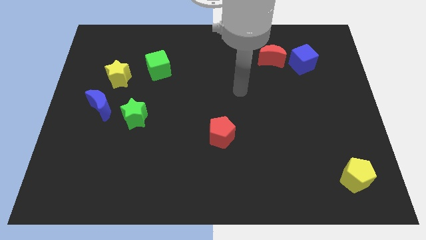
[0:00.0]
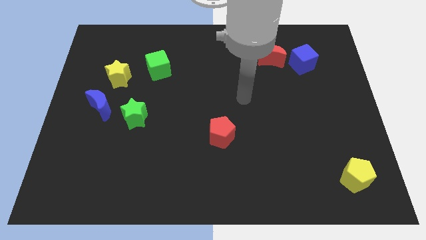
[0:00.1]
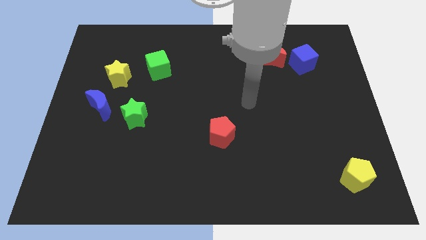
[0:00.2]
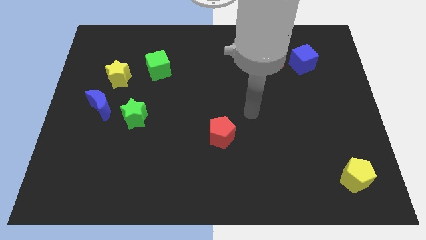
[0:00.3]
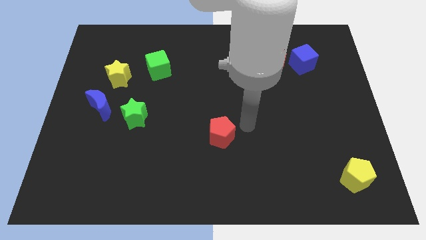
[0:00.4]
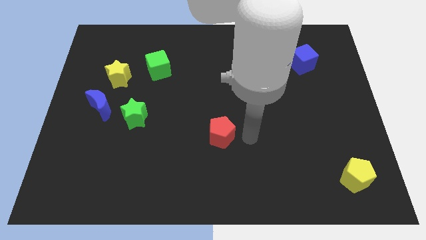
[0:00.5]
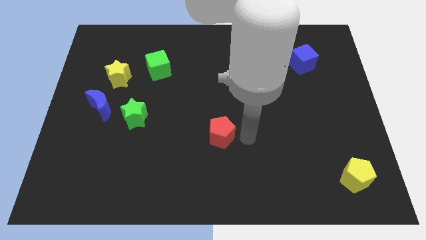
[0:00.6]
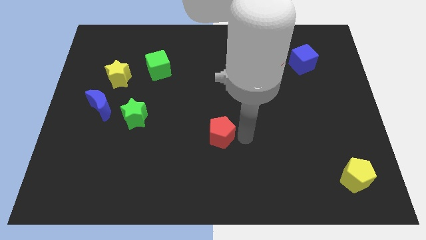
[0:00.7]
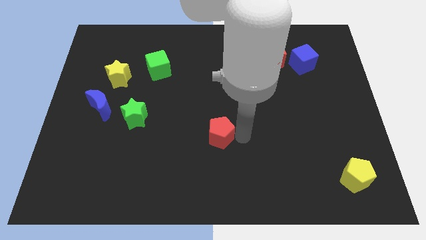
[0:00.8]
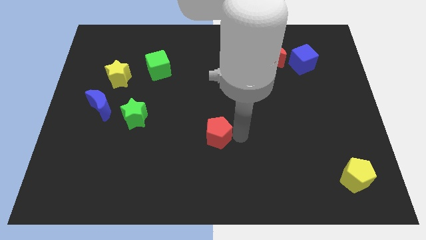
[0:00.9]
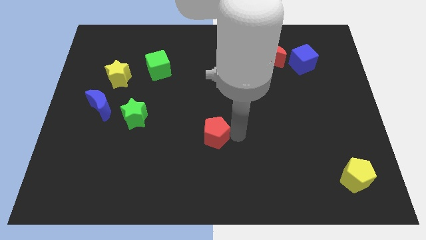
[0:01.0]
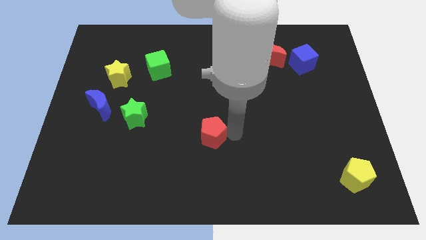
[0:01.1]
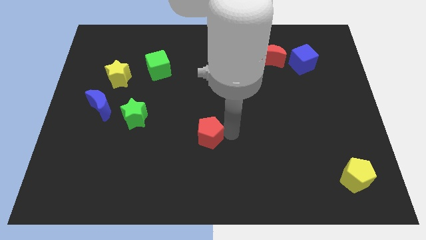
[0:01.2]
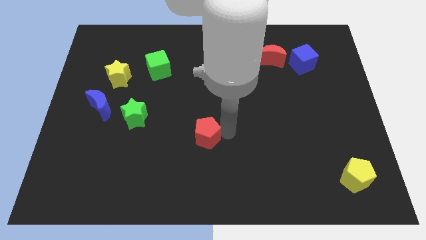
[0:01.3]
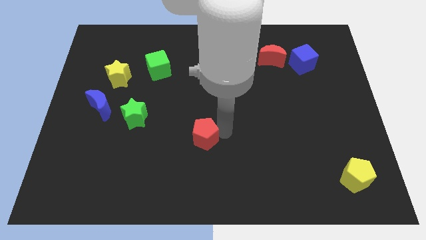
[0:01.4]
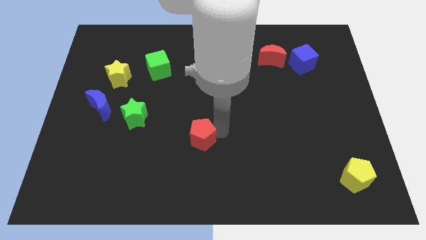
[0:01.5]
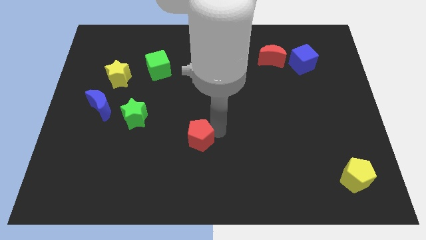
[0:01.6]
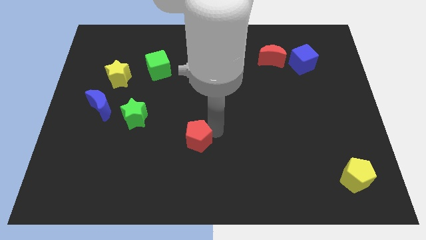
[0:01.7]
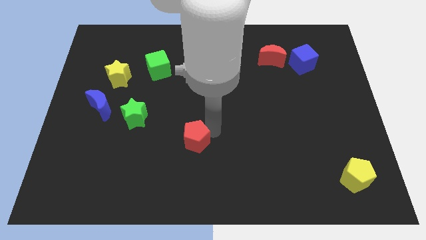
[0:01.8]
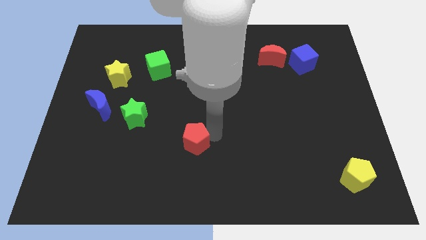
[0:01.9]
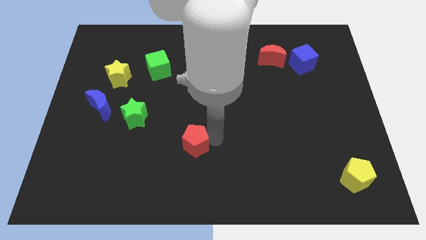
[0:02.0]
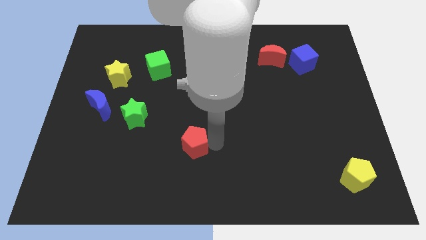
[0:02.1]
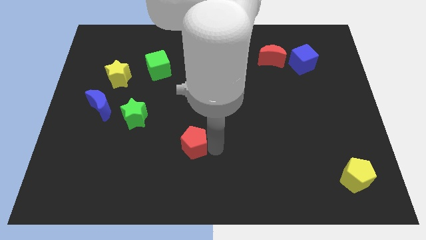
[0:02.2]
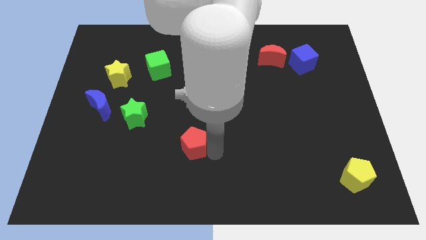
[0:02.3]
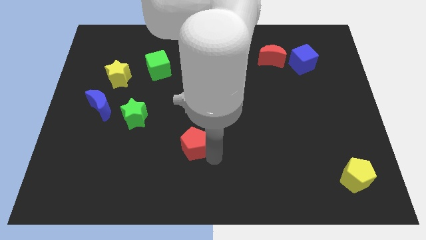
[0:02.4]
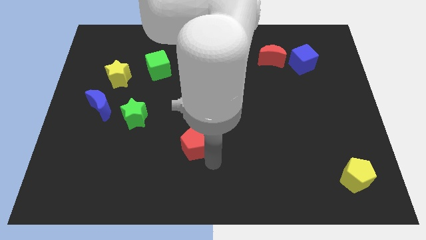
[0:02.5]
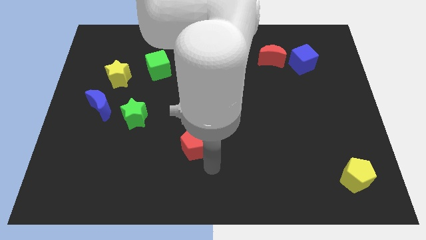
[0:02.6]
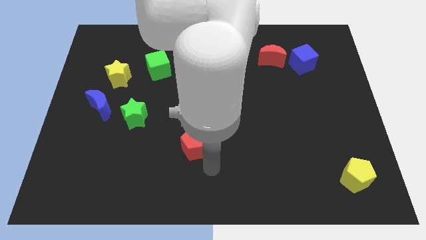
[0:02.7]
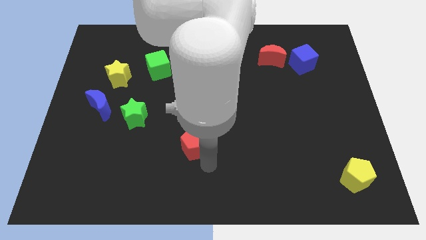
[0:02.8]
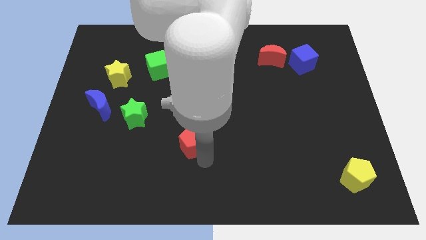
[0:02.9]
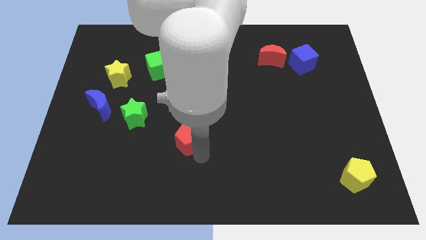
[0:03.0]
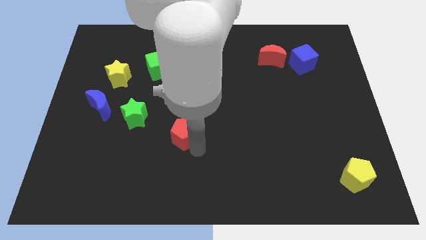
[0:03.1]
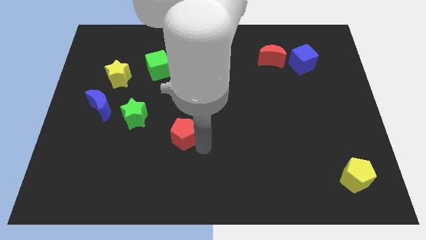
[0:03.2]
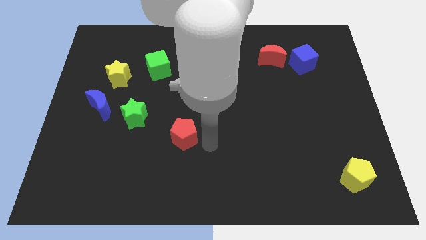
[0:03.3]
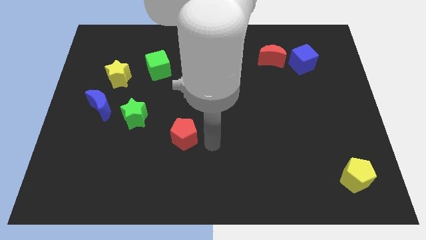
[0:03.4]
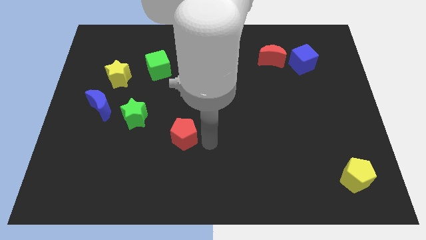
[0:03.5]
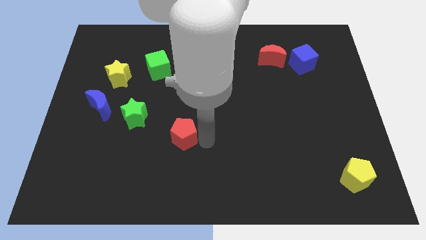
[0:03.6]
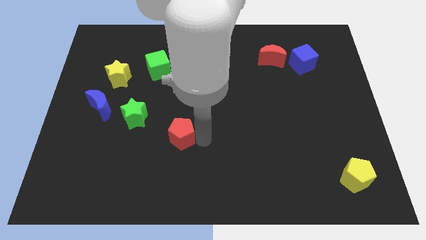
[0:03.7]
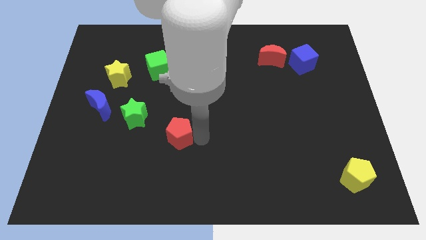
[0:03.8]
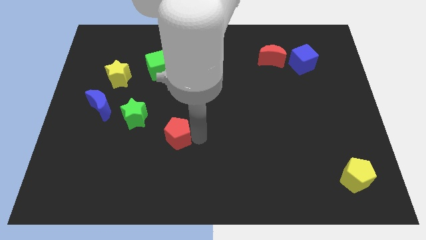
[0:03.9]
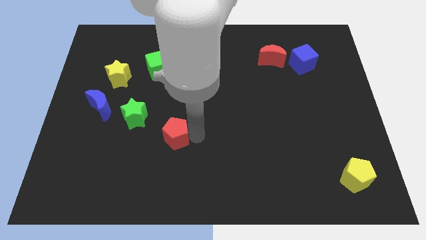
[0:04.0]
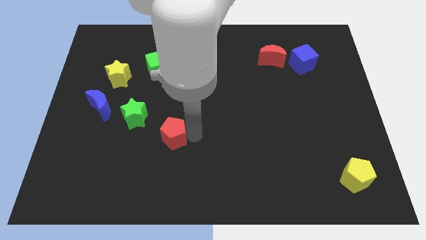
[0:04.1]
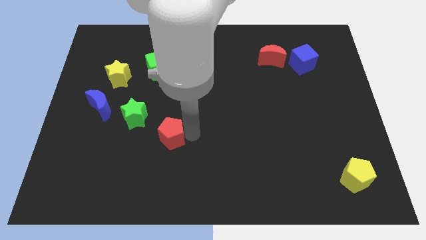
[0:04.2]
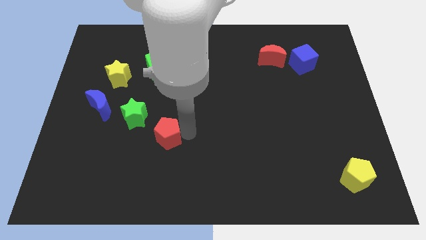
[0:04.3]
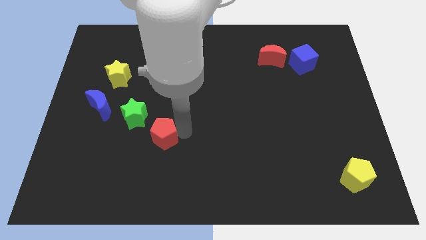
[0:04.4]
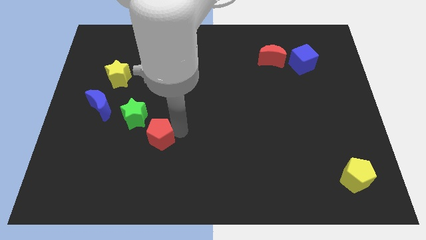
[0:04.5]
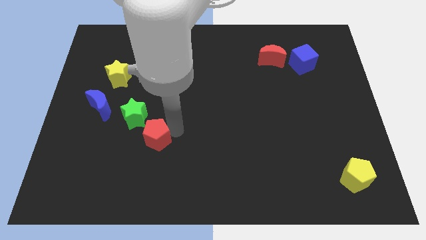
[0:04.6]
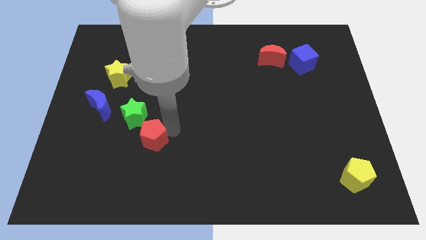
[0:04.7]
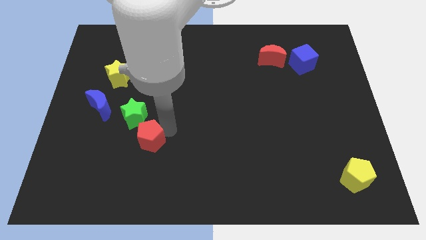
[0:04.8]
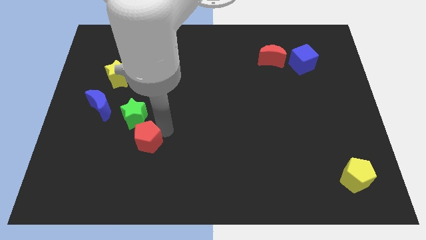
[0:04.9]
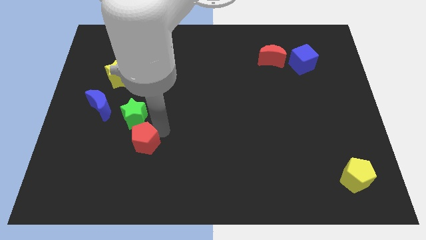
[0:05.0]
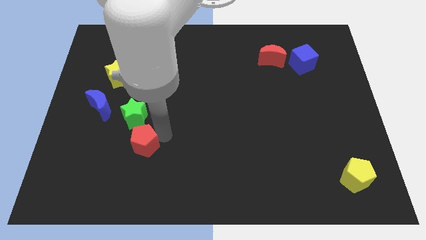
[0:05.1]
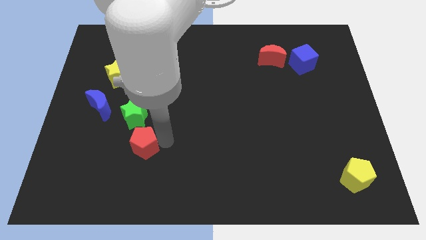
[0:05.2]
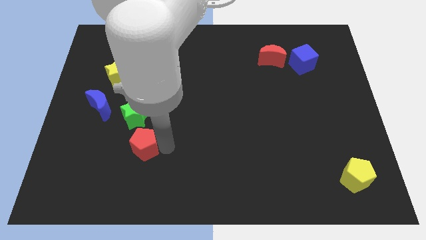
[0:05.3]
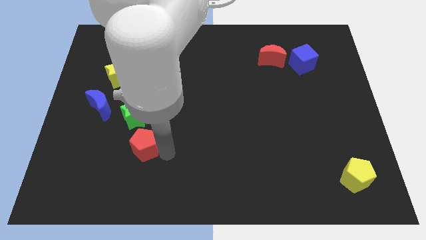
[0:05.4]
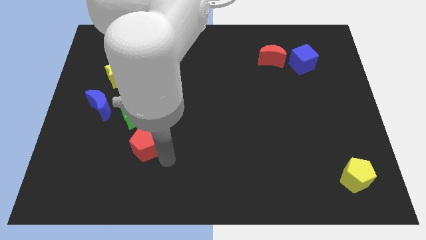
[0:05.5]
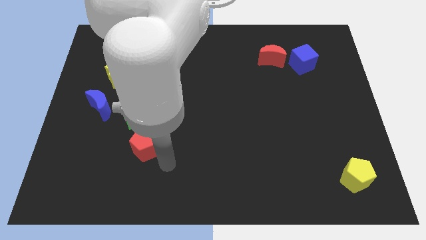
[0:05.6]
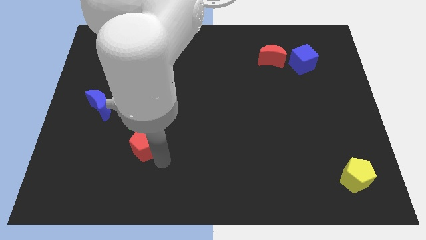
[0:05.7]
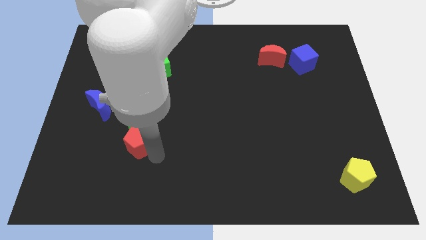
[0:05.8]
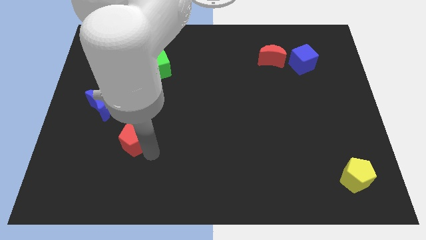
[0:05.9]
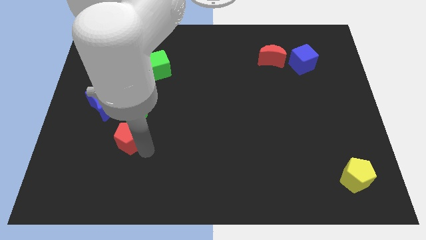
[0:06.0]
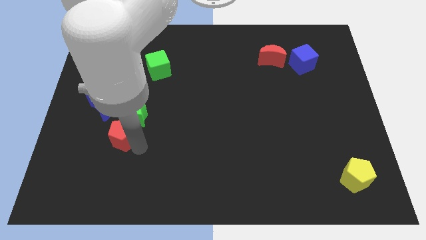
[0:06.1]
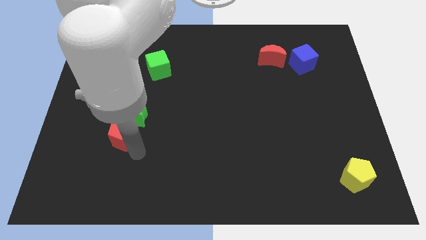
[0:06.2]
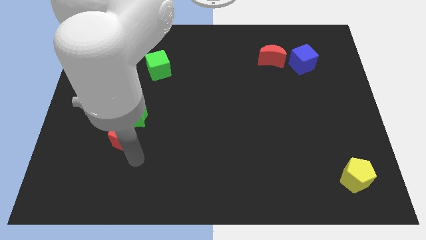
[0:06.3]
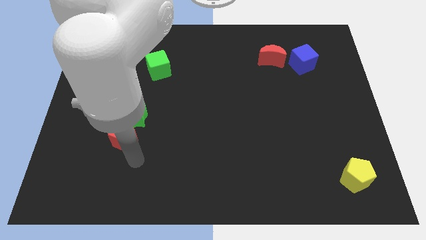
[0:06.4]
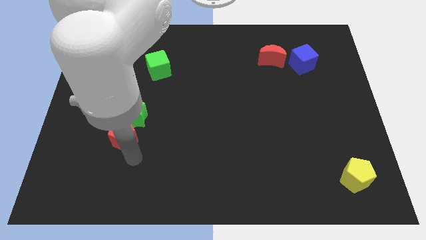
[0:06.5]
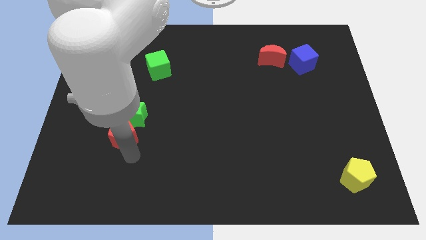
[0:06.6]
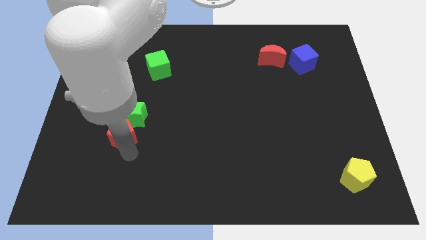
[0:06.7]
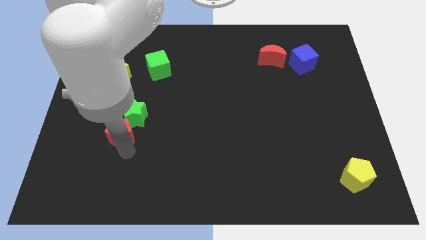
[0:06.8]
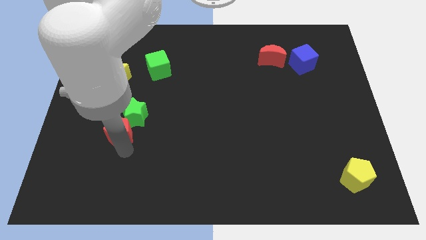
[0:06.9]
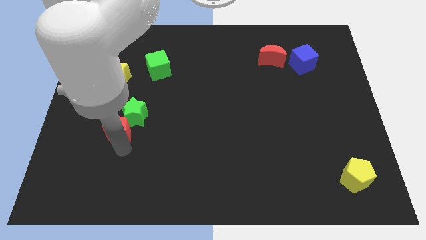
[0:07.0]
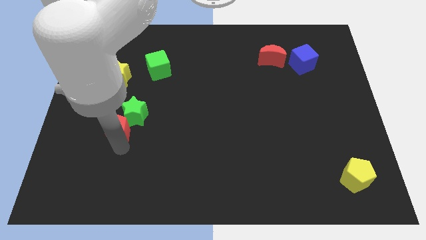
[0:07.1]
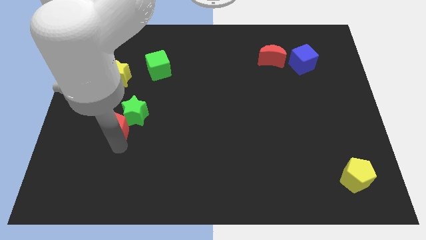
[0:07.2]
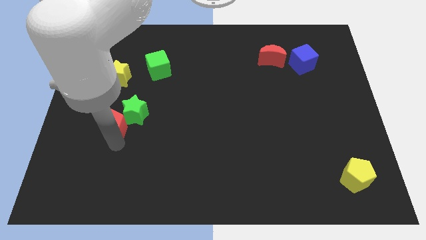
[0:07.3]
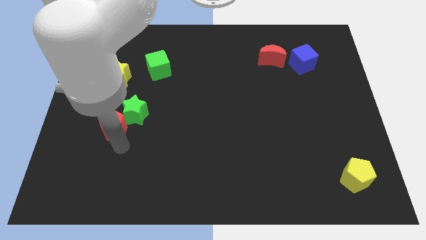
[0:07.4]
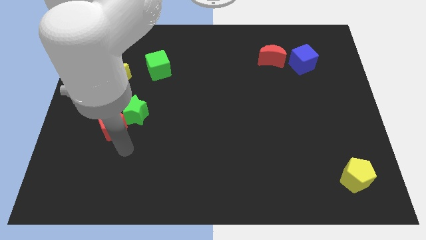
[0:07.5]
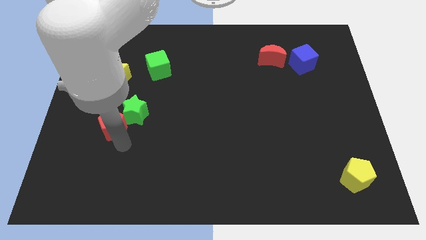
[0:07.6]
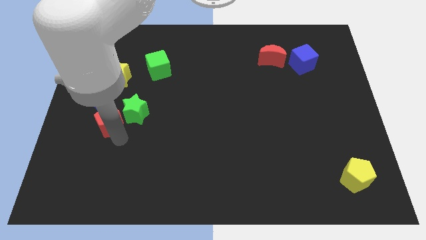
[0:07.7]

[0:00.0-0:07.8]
slide the red pentagon next to the blue moon

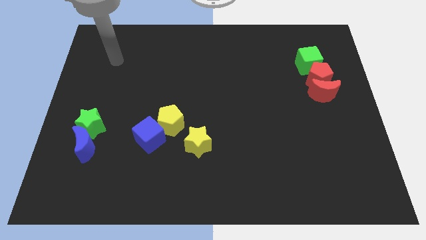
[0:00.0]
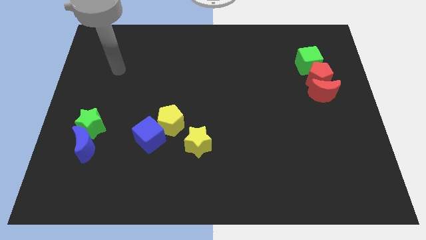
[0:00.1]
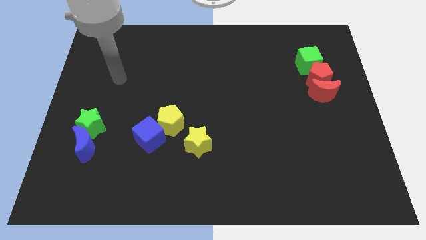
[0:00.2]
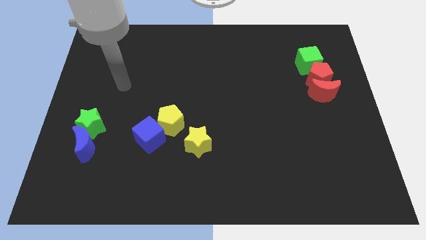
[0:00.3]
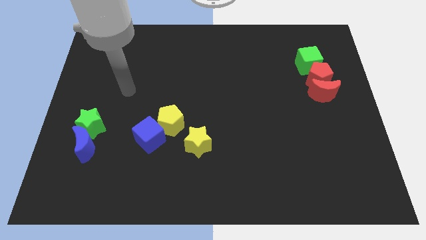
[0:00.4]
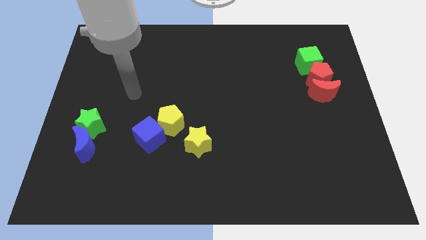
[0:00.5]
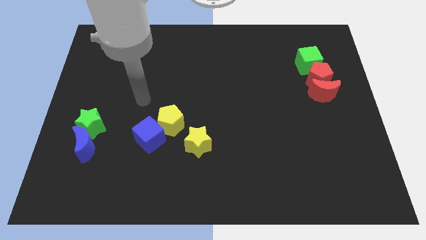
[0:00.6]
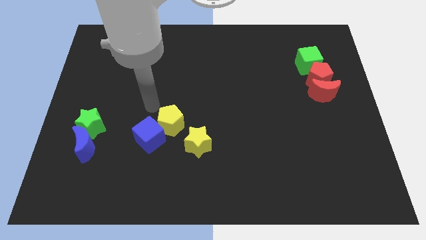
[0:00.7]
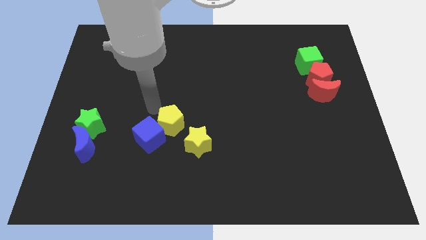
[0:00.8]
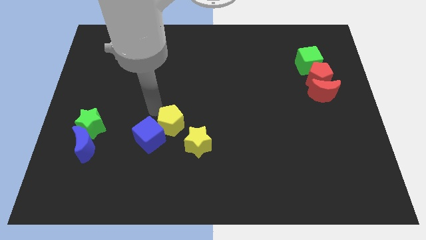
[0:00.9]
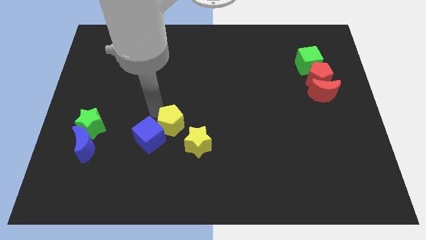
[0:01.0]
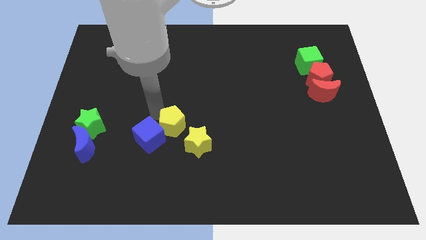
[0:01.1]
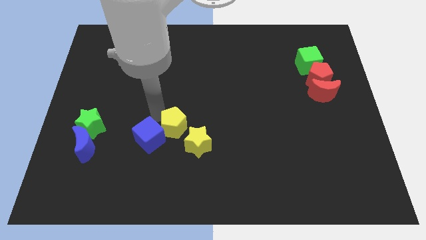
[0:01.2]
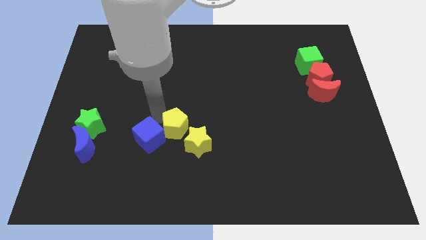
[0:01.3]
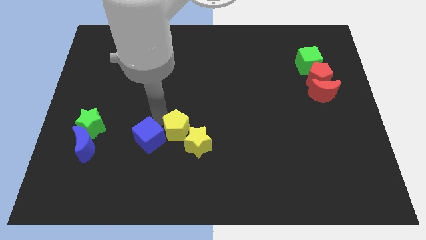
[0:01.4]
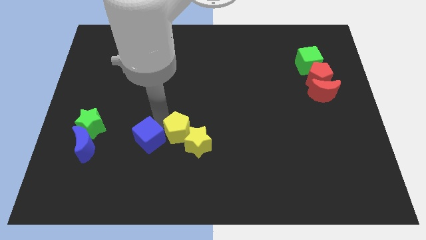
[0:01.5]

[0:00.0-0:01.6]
push the yellow pentagon close to the yellow star
